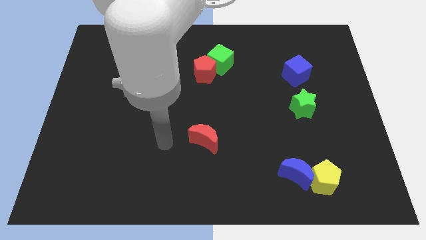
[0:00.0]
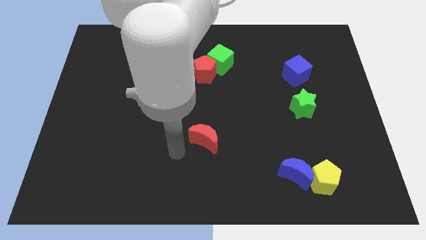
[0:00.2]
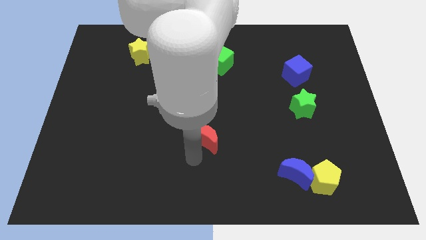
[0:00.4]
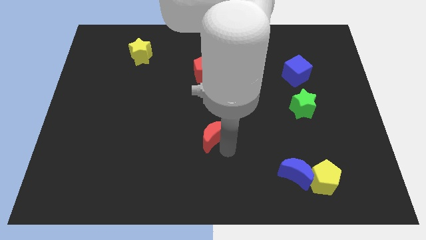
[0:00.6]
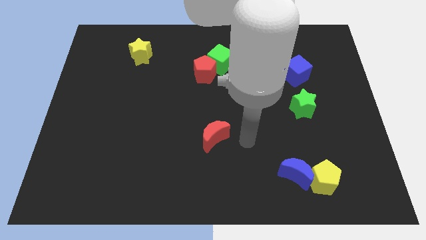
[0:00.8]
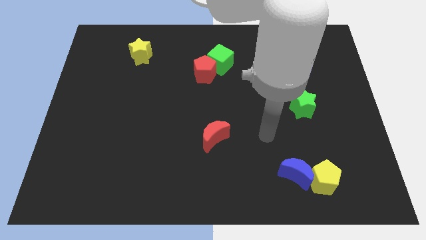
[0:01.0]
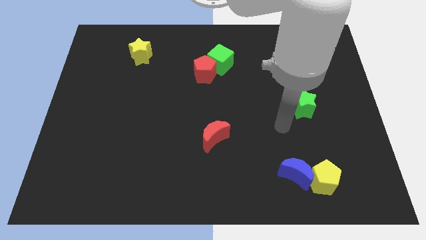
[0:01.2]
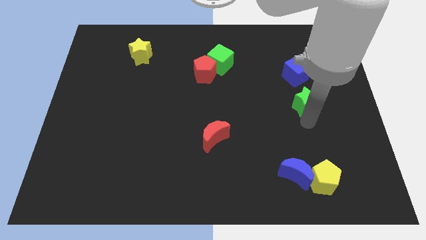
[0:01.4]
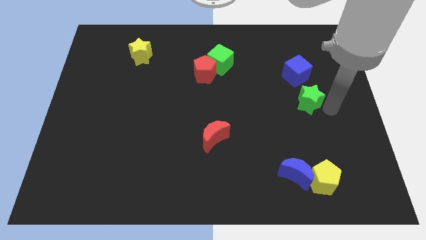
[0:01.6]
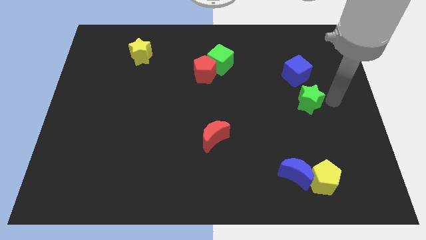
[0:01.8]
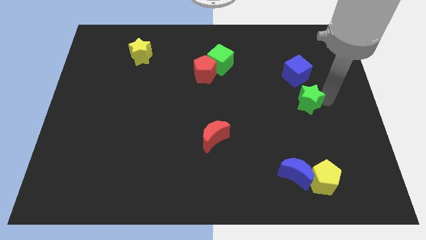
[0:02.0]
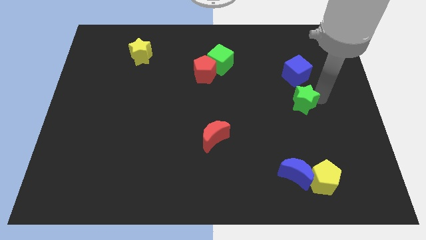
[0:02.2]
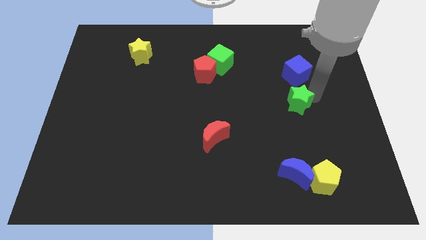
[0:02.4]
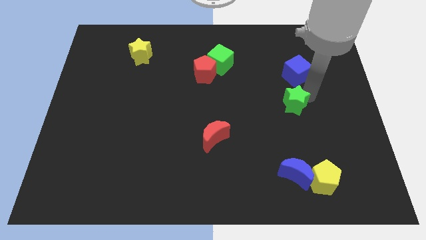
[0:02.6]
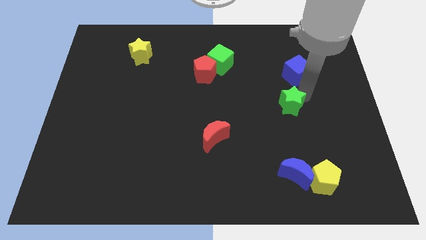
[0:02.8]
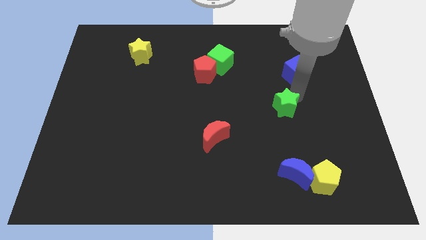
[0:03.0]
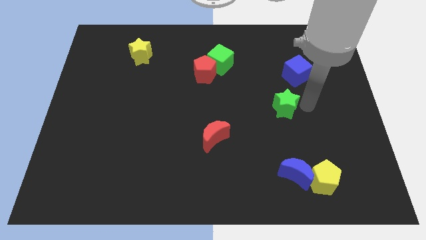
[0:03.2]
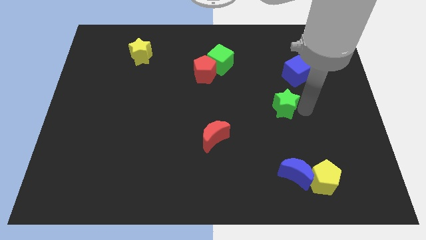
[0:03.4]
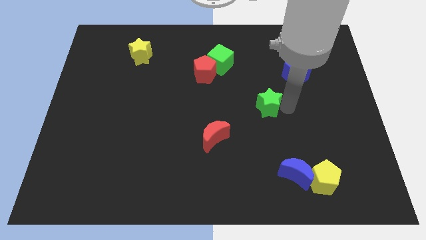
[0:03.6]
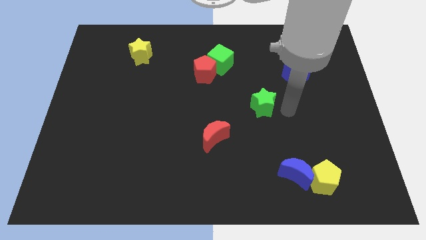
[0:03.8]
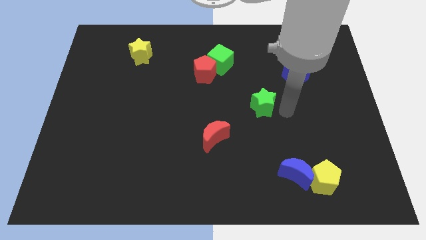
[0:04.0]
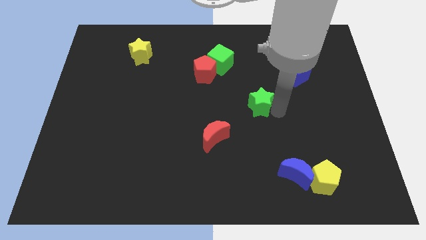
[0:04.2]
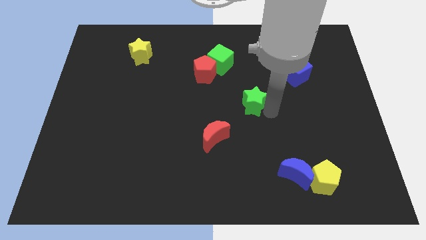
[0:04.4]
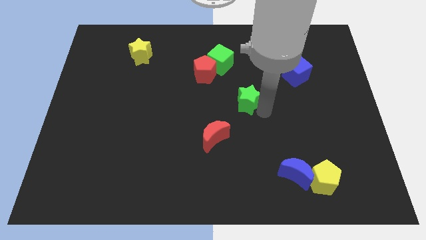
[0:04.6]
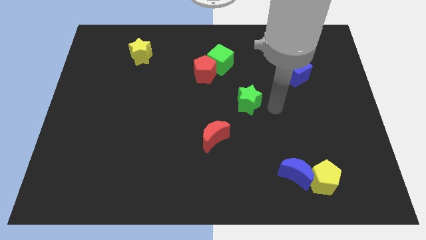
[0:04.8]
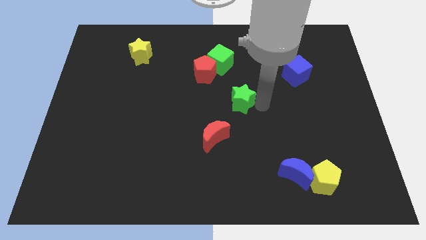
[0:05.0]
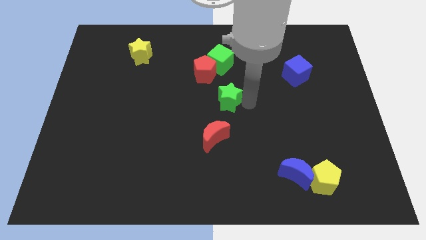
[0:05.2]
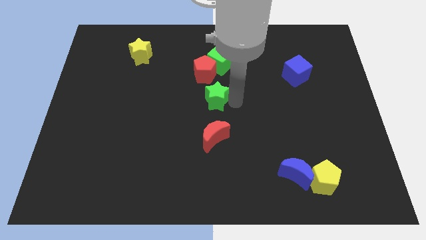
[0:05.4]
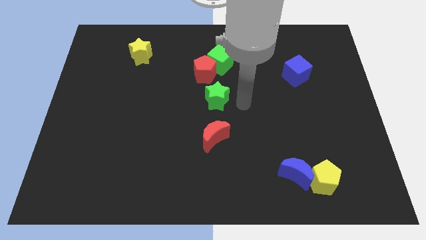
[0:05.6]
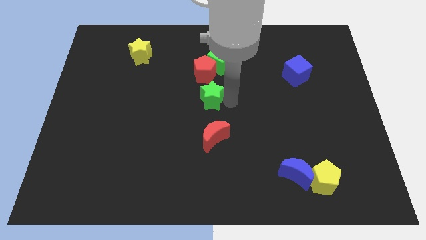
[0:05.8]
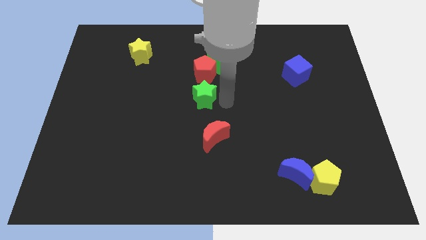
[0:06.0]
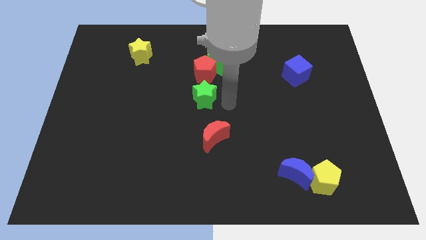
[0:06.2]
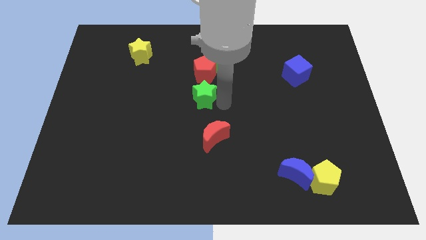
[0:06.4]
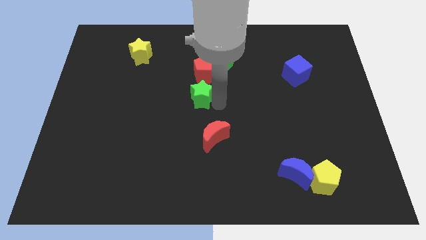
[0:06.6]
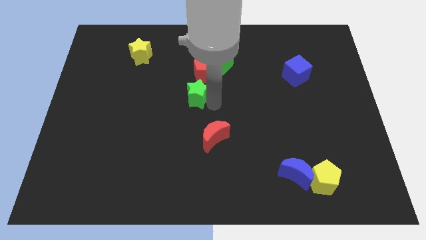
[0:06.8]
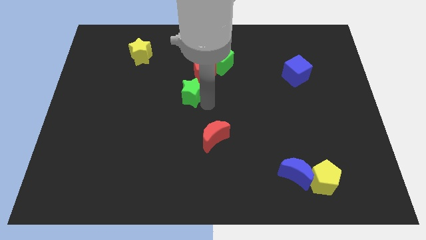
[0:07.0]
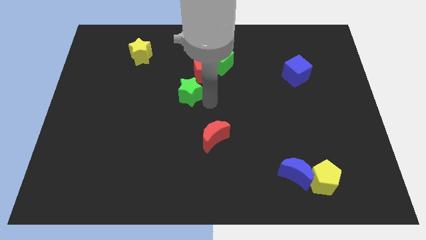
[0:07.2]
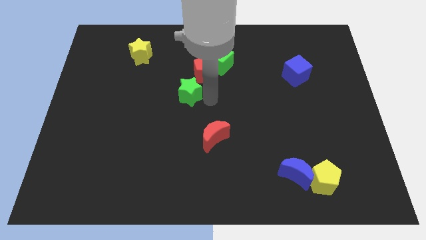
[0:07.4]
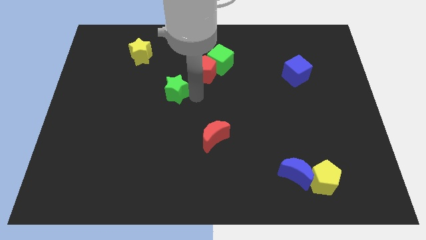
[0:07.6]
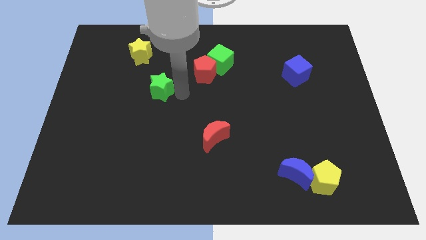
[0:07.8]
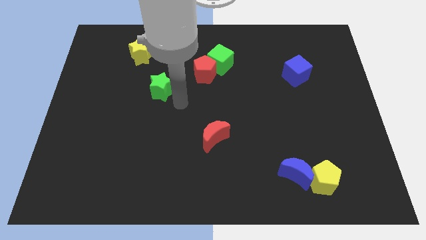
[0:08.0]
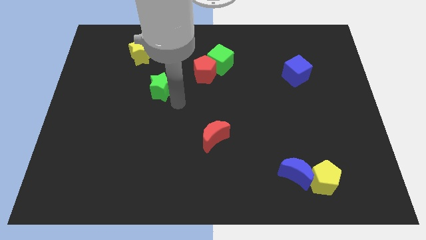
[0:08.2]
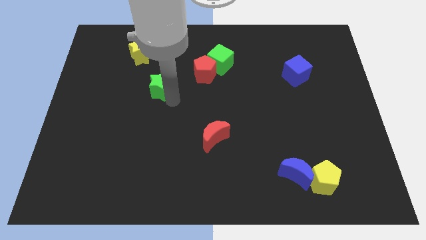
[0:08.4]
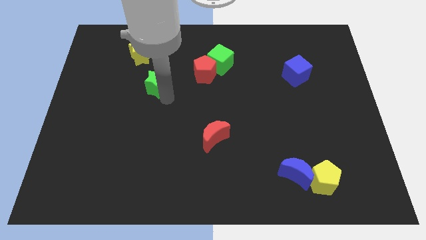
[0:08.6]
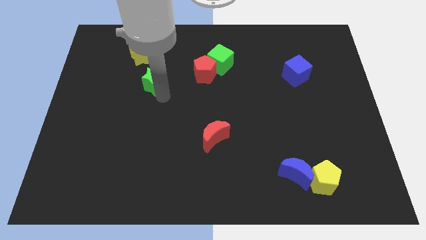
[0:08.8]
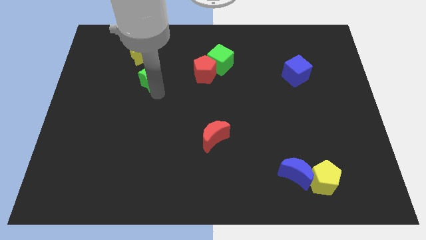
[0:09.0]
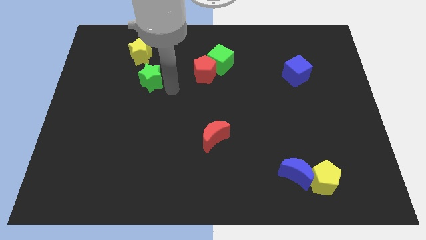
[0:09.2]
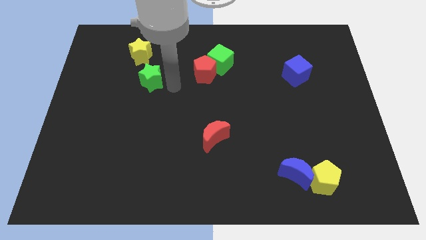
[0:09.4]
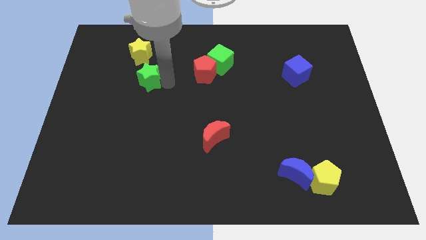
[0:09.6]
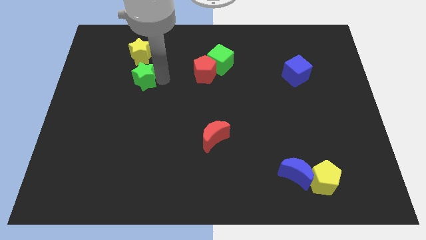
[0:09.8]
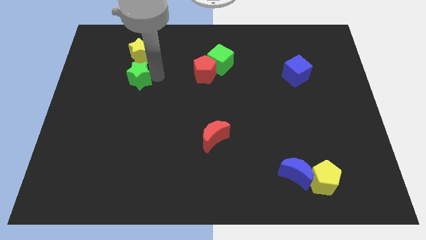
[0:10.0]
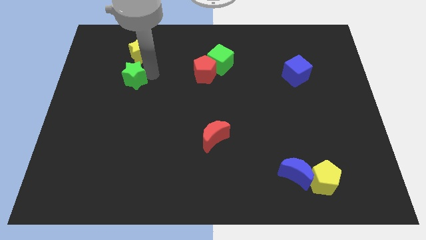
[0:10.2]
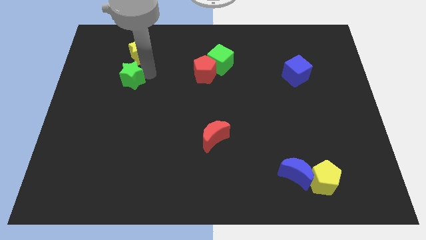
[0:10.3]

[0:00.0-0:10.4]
move the green star to the bottom left of the yellow star

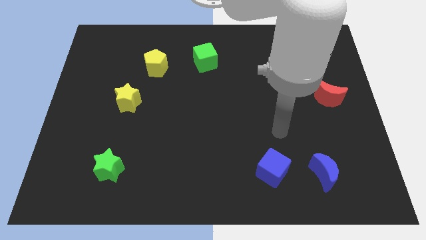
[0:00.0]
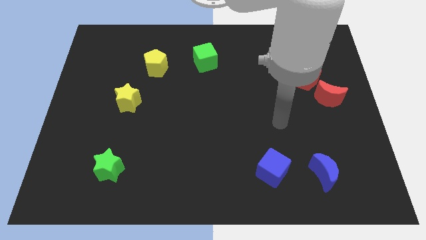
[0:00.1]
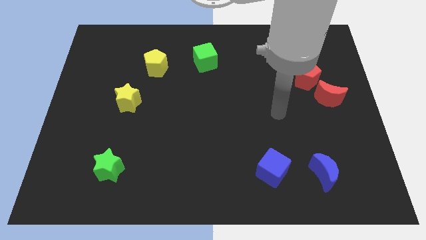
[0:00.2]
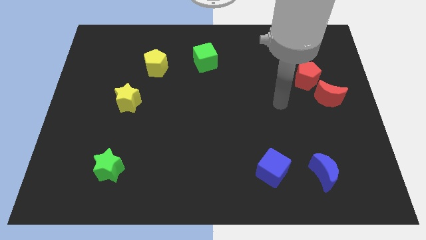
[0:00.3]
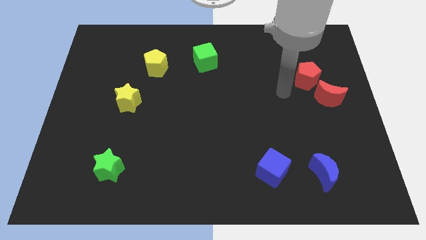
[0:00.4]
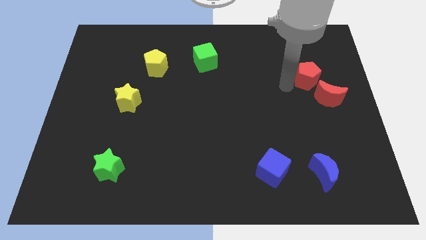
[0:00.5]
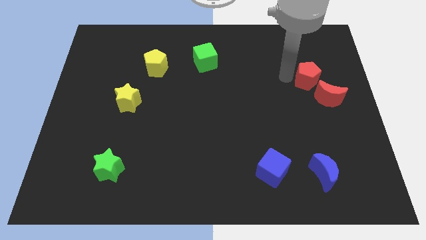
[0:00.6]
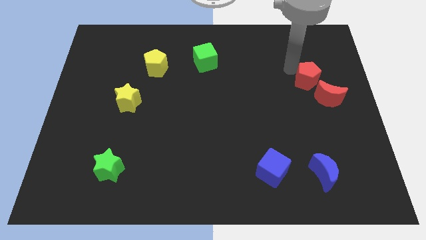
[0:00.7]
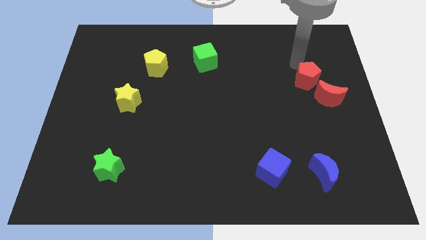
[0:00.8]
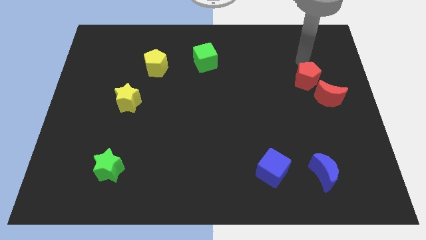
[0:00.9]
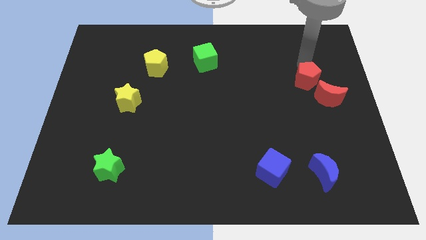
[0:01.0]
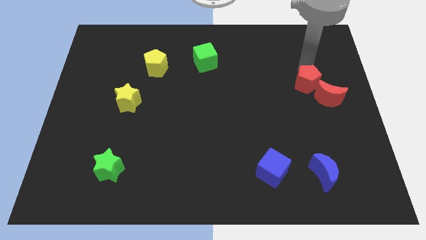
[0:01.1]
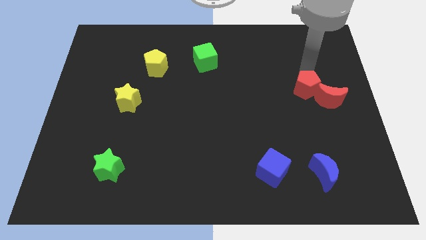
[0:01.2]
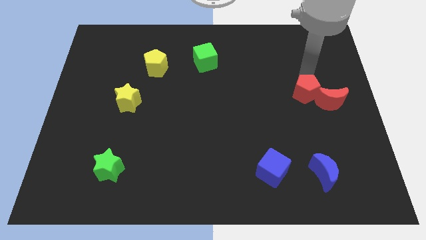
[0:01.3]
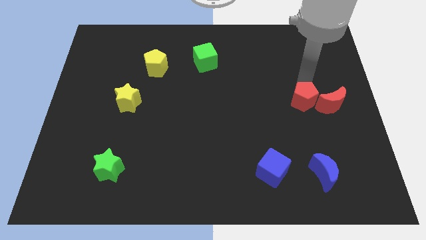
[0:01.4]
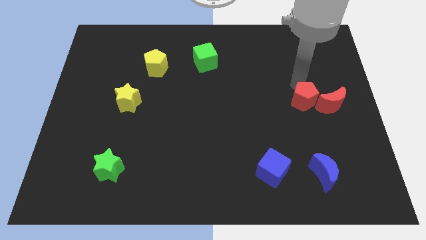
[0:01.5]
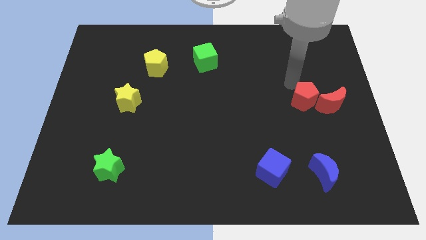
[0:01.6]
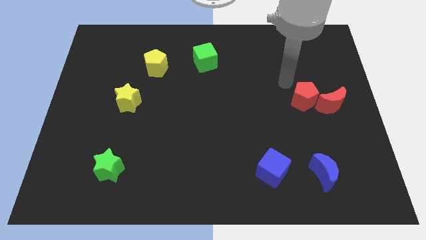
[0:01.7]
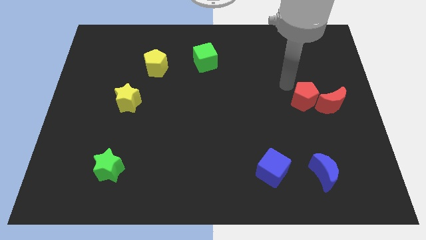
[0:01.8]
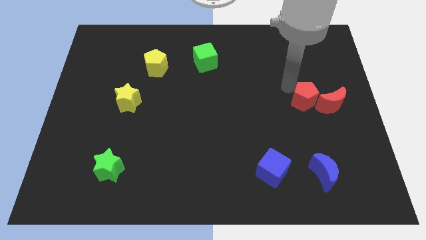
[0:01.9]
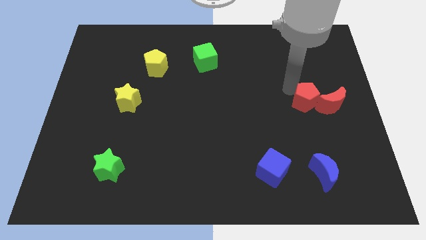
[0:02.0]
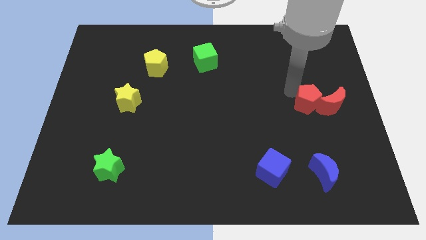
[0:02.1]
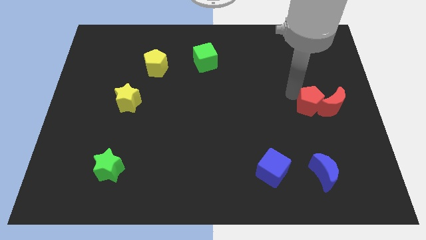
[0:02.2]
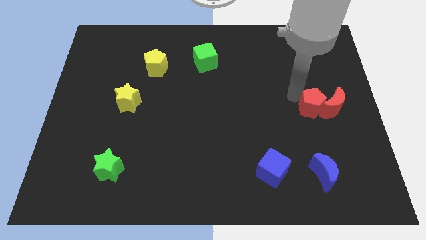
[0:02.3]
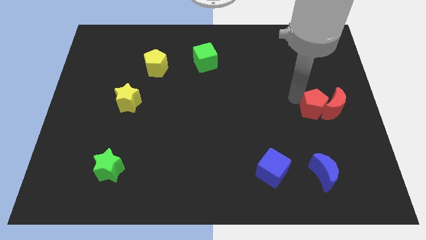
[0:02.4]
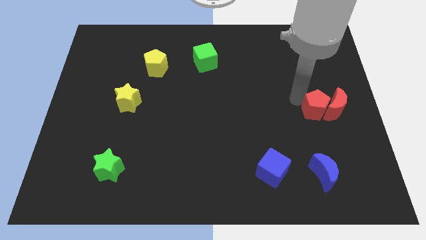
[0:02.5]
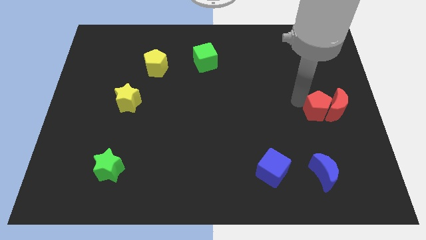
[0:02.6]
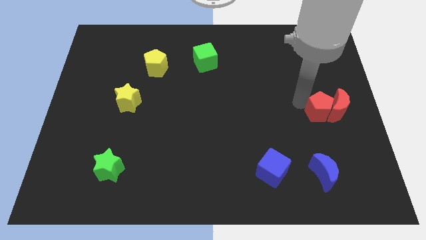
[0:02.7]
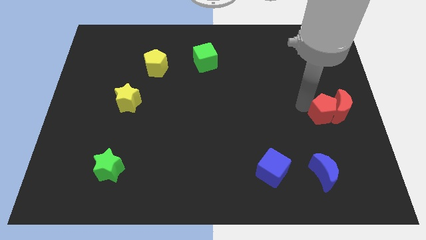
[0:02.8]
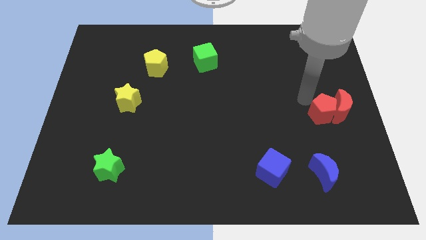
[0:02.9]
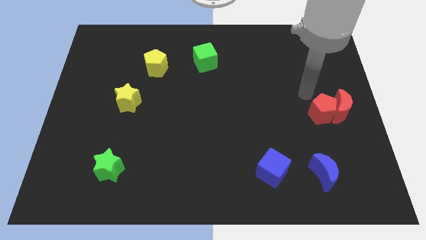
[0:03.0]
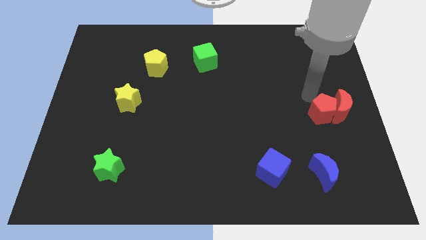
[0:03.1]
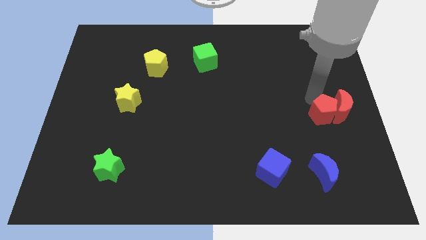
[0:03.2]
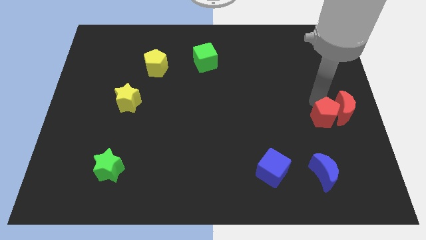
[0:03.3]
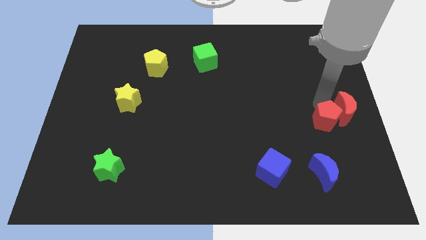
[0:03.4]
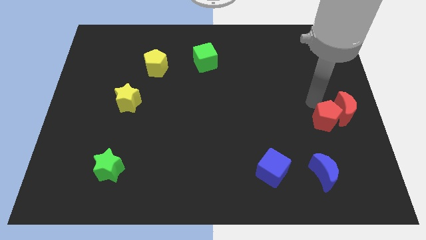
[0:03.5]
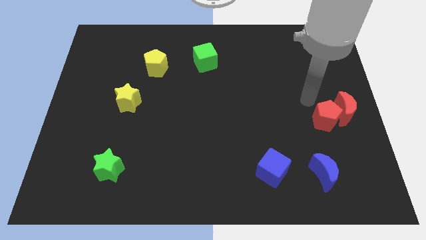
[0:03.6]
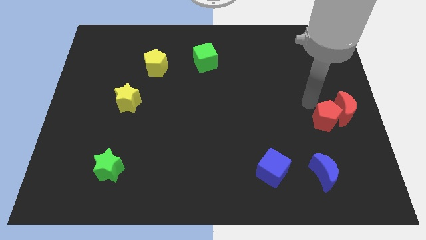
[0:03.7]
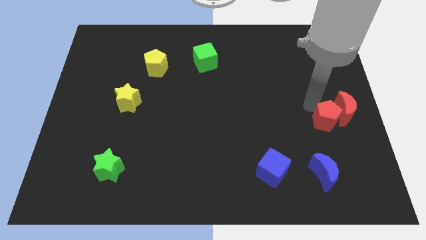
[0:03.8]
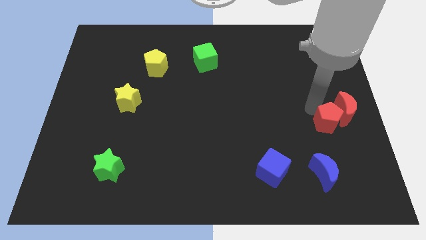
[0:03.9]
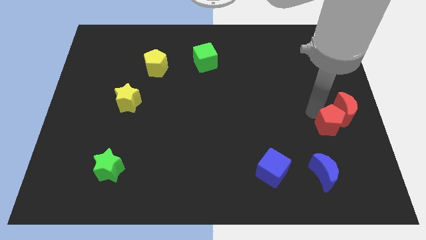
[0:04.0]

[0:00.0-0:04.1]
put the red pentagon below the red moon
